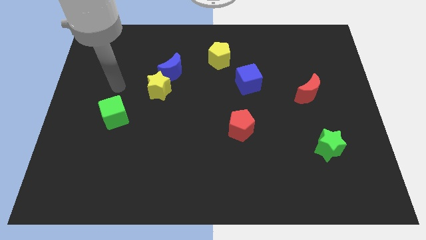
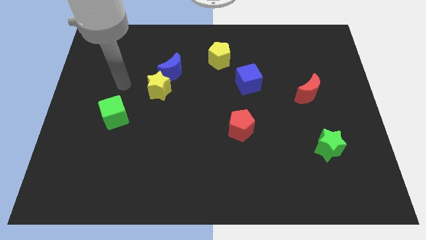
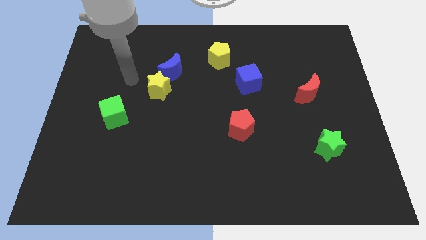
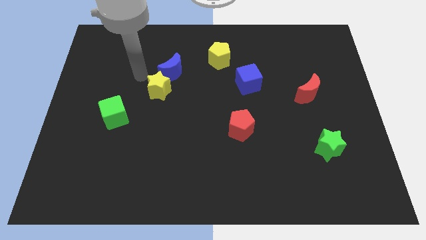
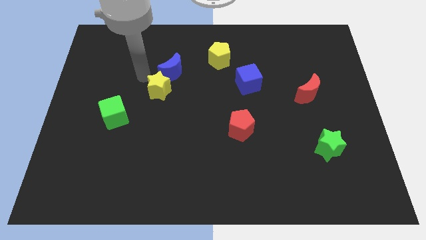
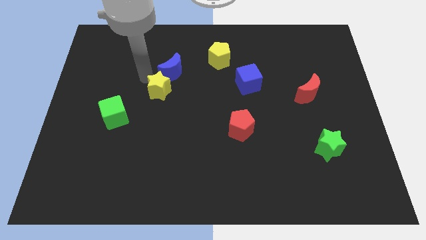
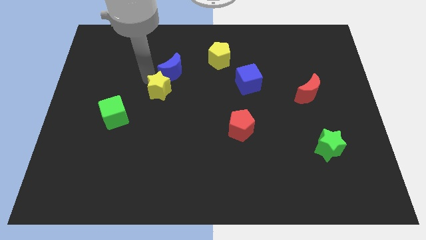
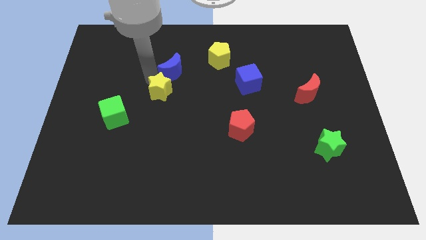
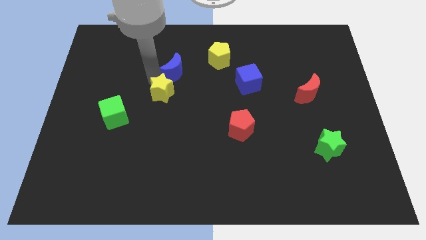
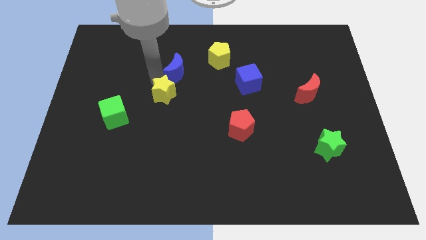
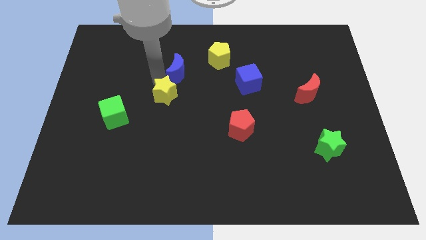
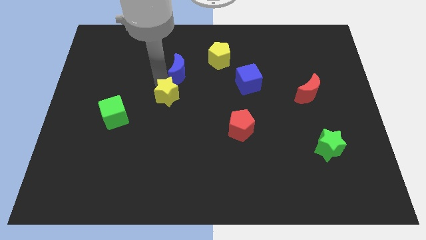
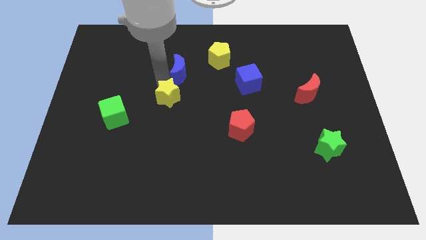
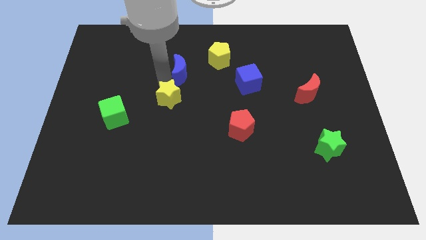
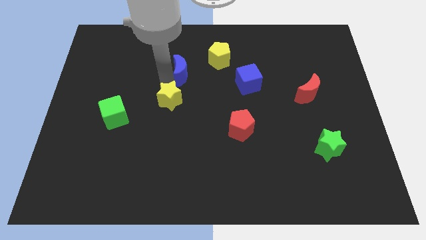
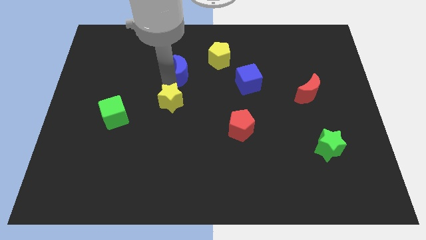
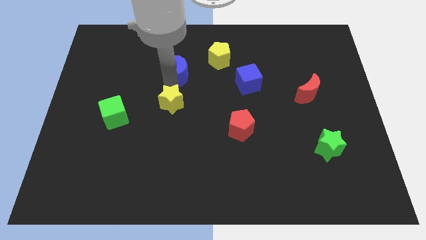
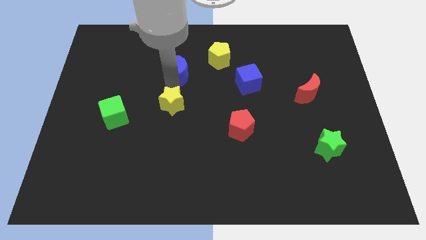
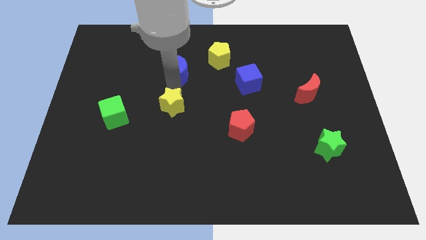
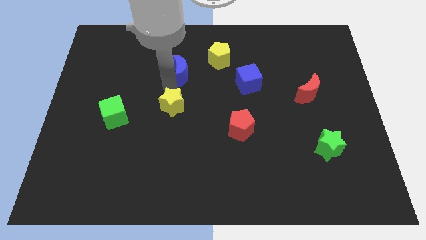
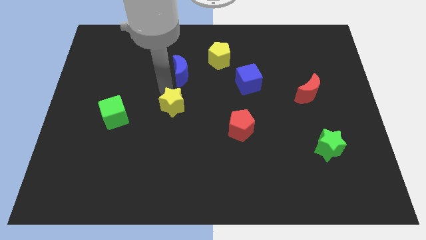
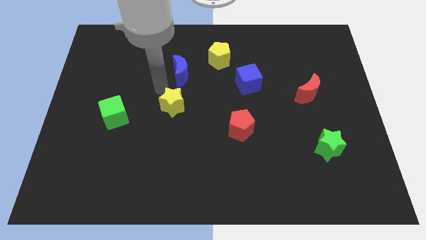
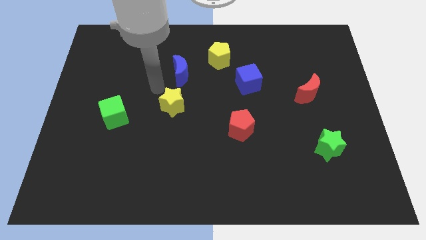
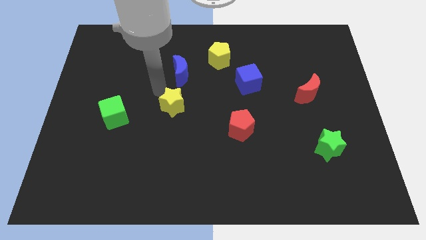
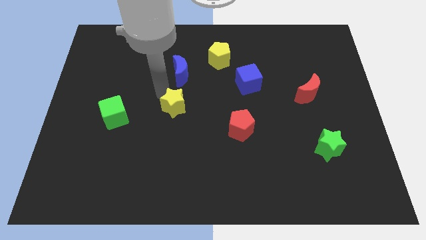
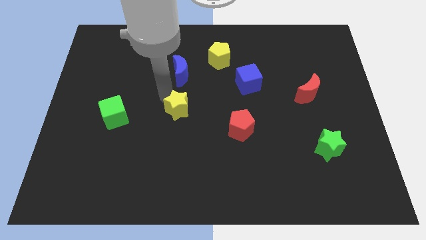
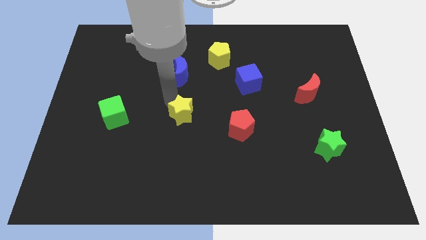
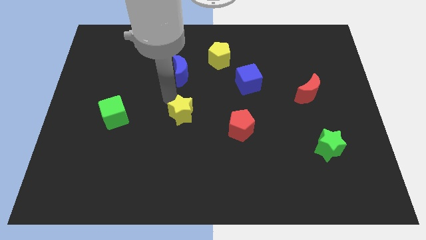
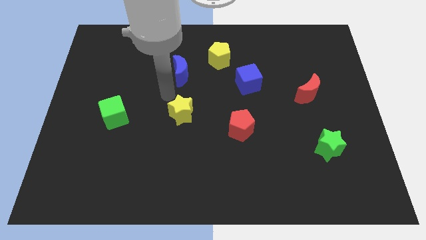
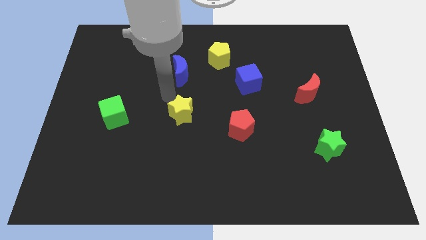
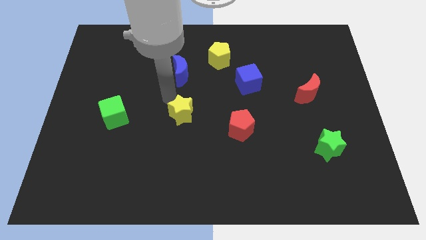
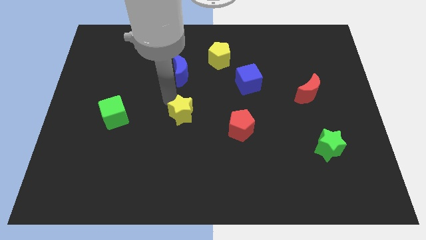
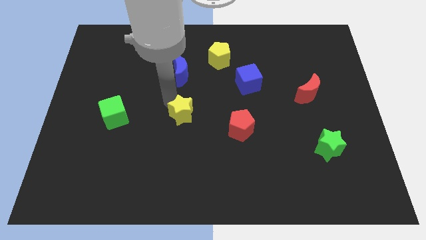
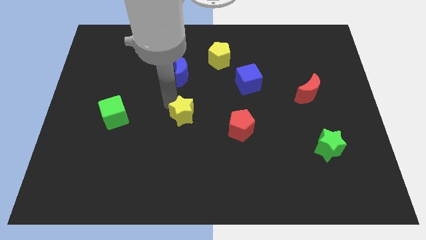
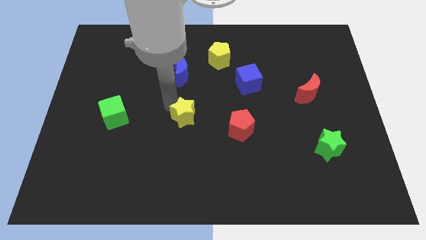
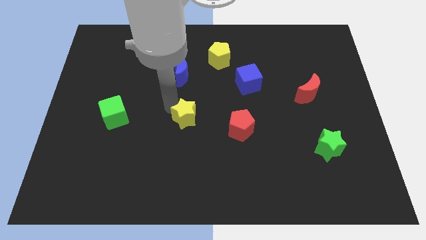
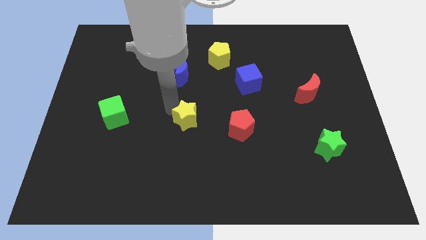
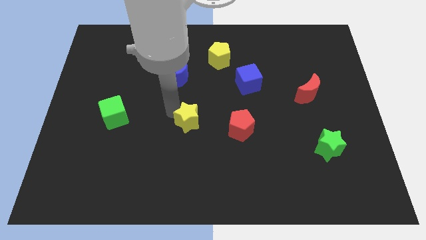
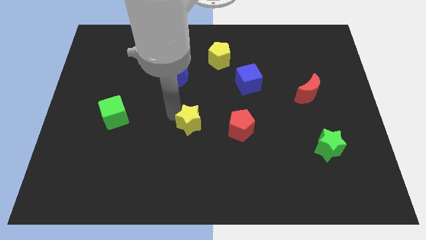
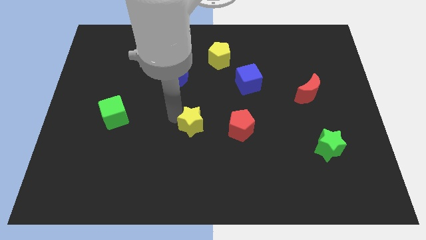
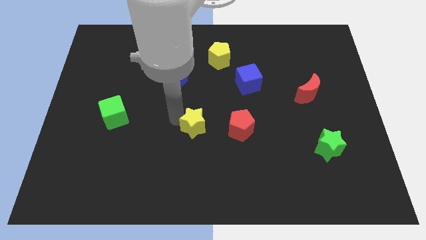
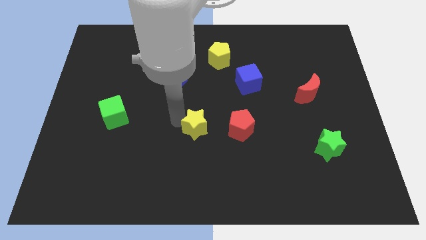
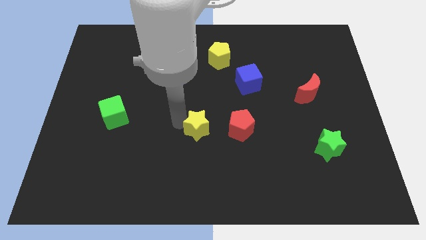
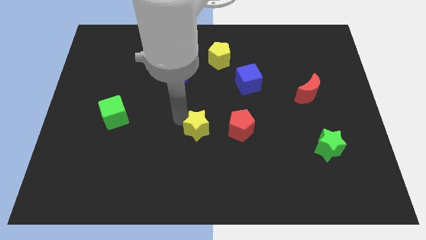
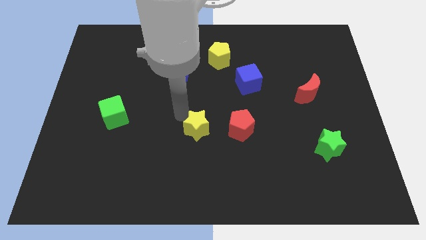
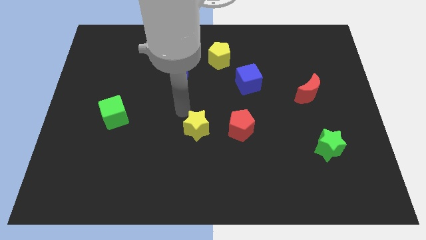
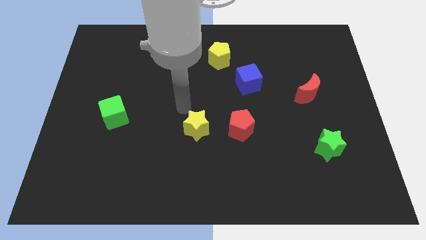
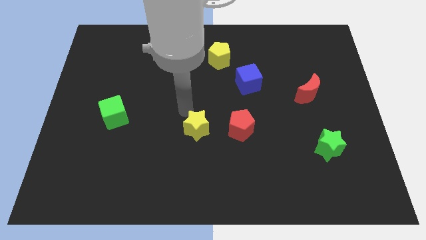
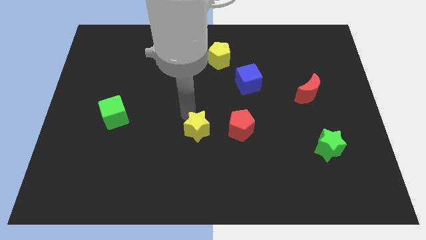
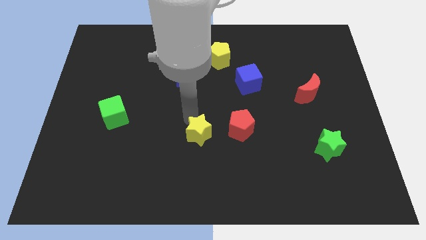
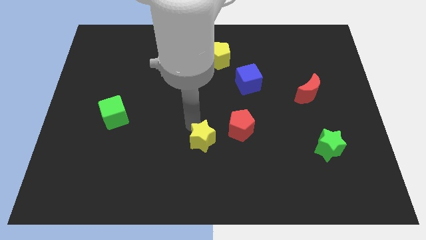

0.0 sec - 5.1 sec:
slide the yellow star to the bottom left of the red pentagon

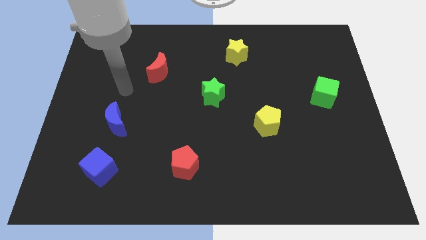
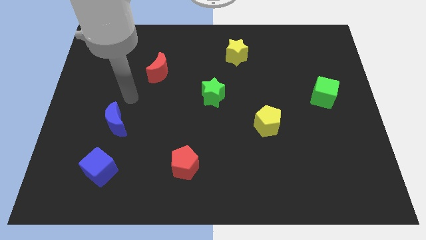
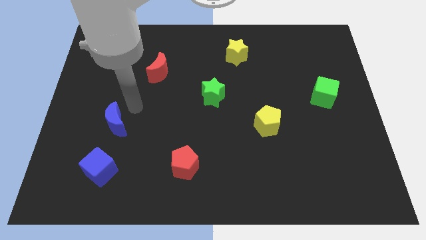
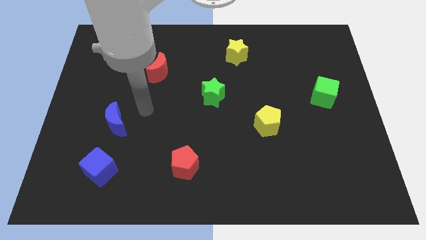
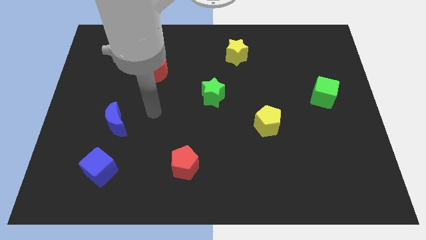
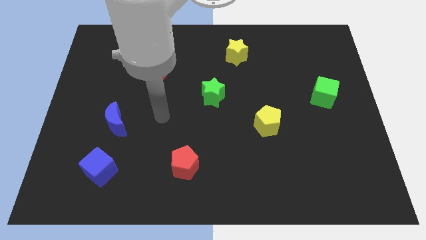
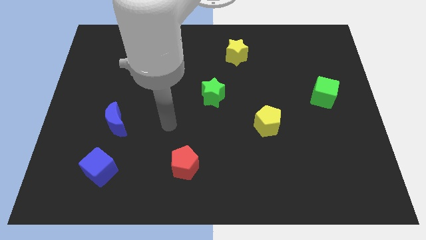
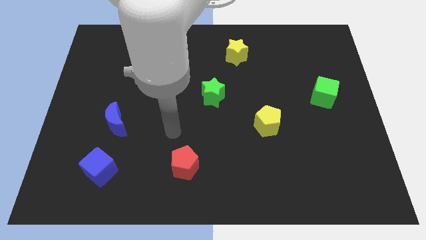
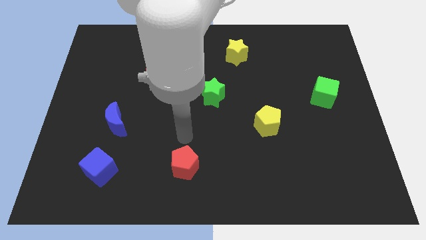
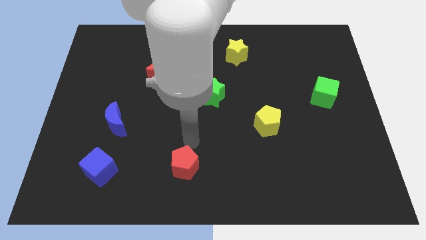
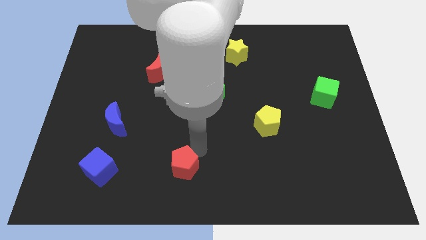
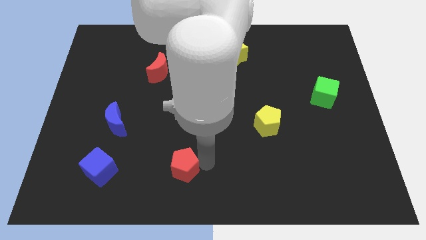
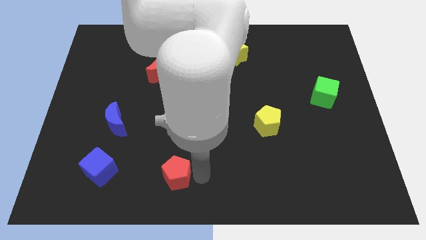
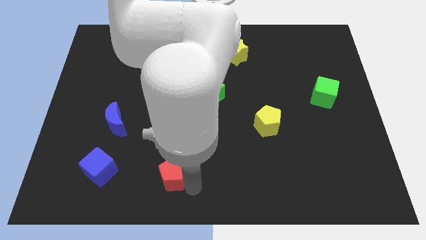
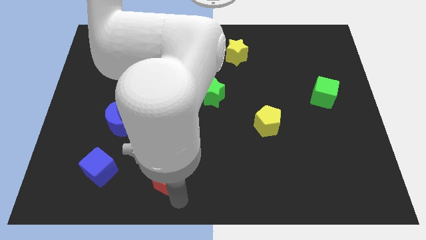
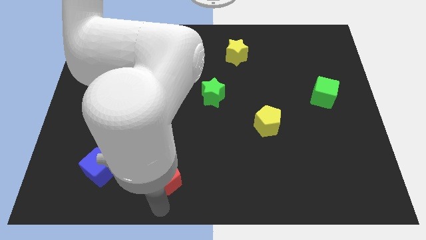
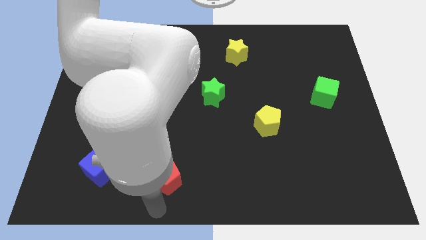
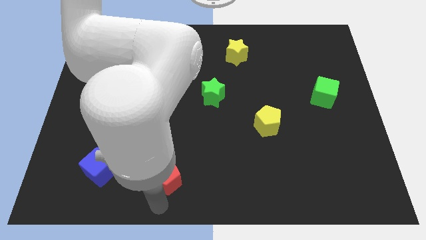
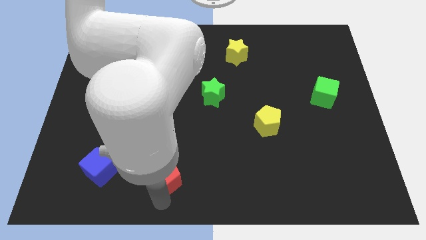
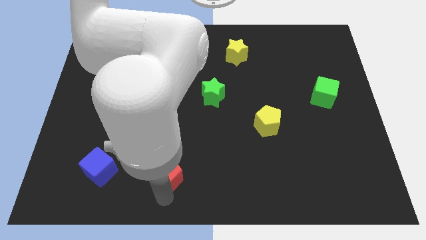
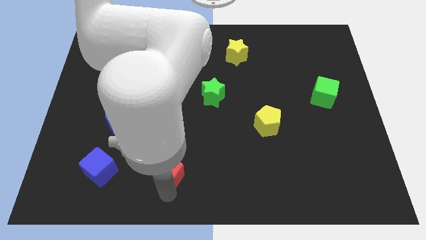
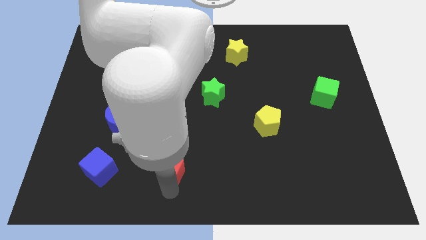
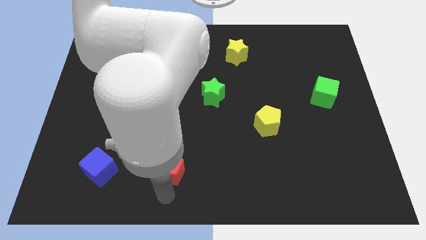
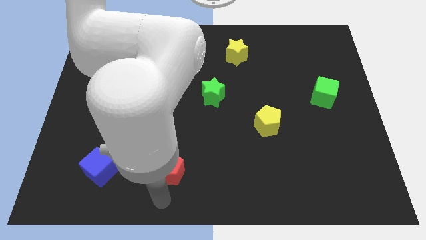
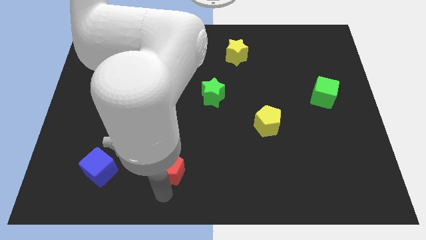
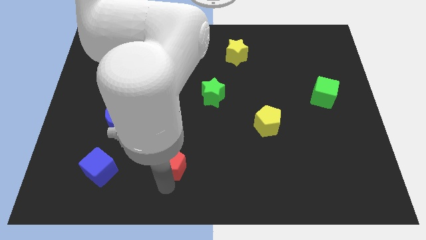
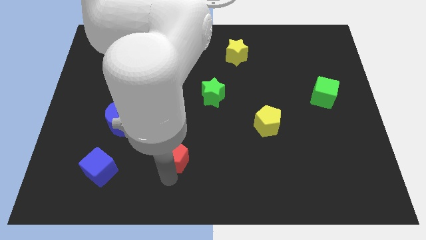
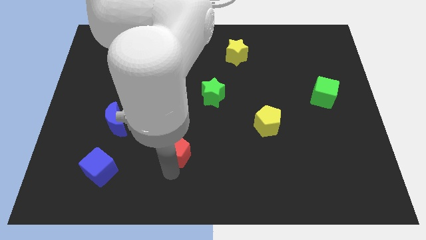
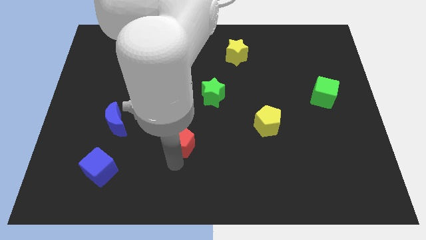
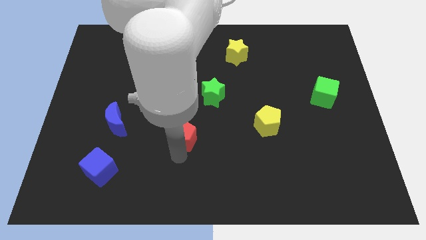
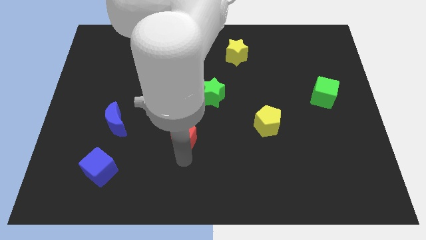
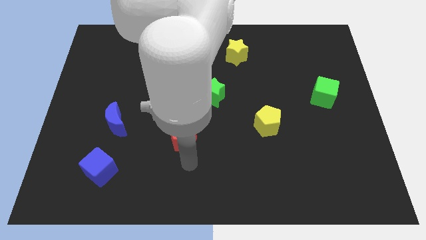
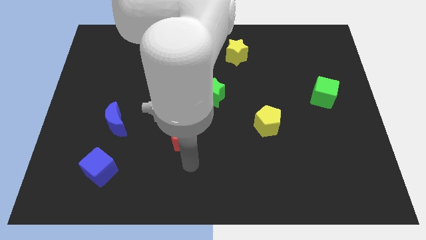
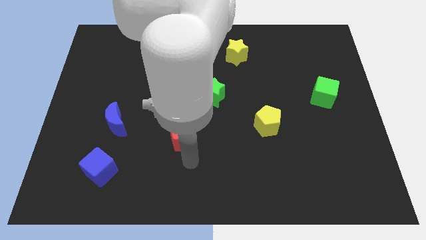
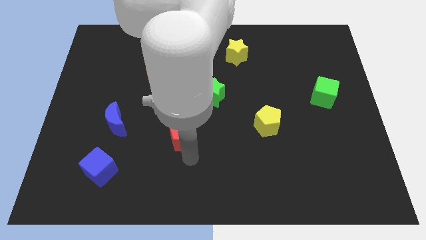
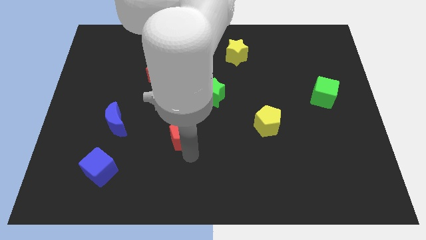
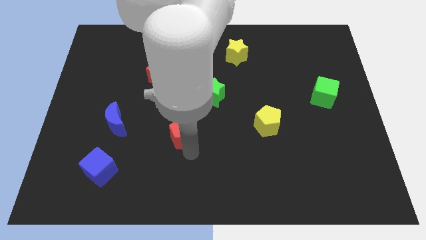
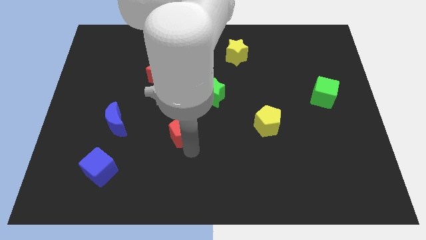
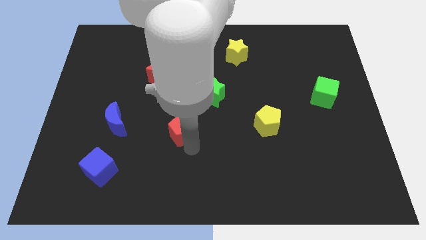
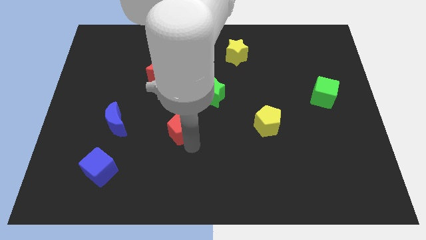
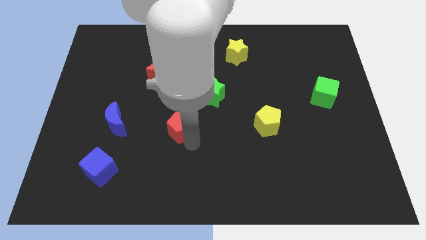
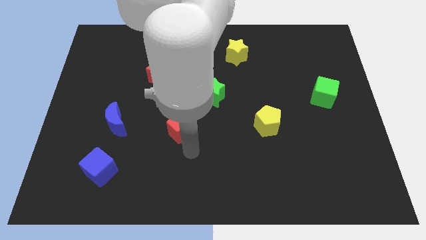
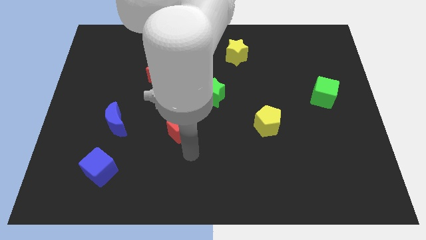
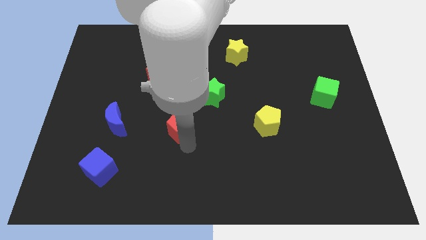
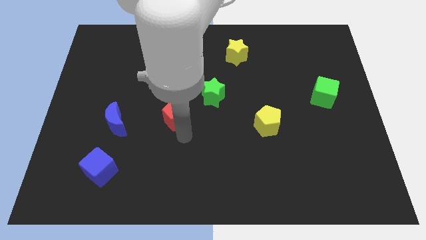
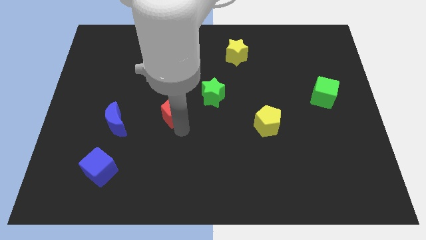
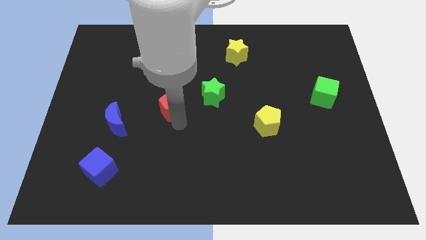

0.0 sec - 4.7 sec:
move the red pentagon to the left of the green star
